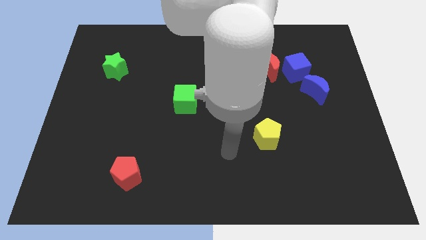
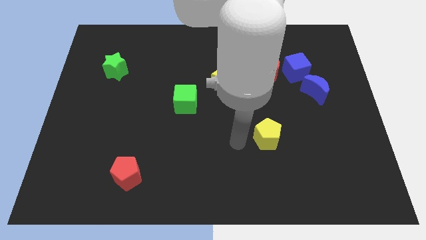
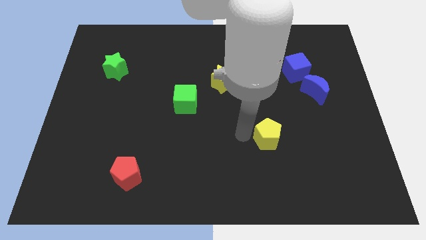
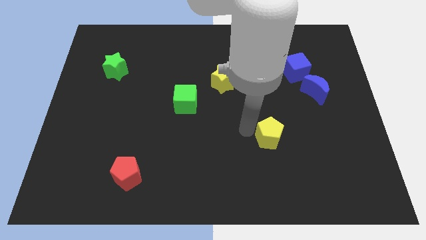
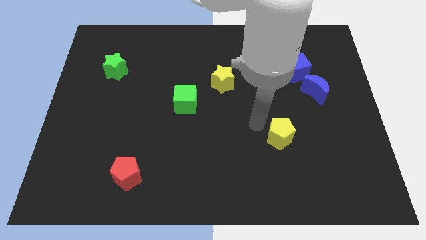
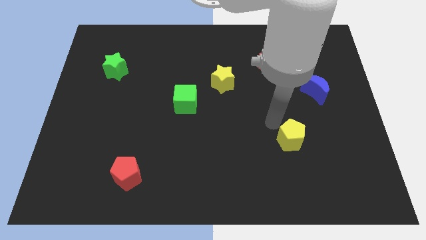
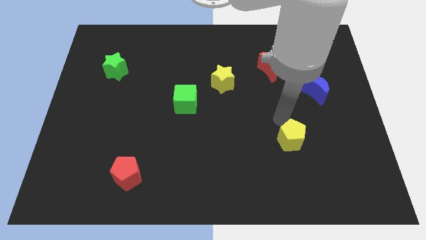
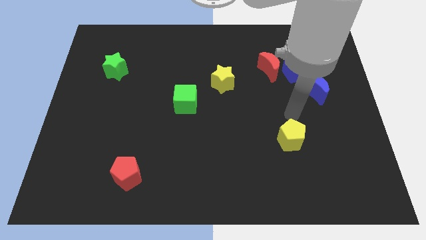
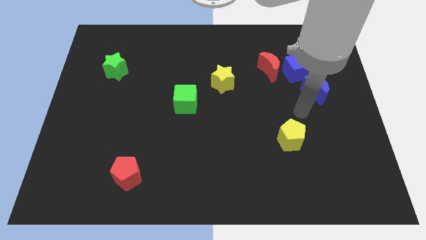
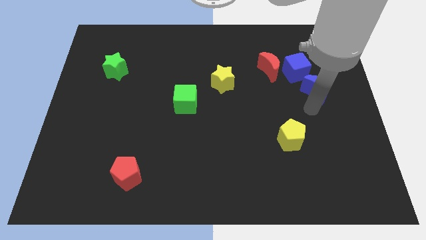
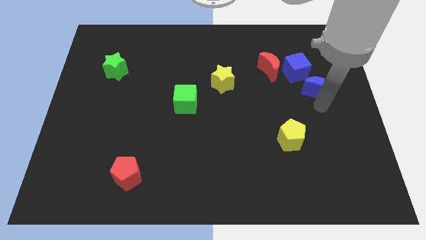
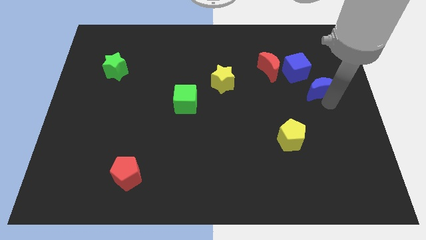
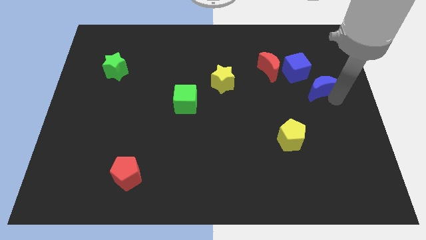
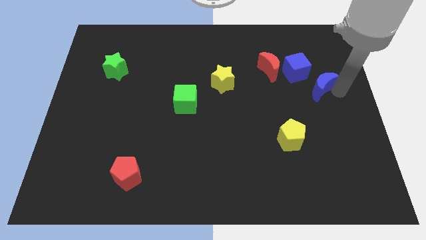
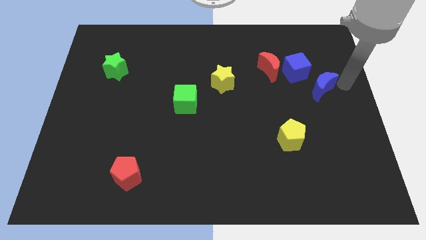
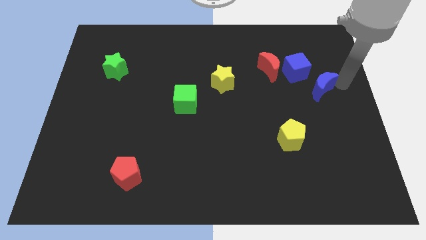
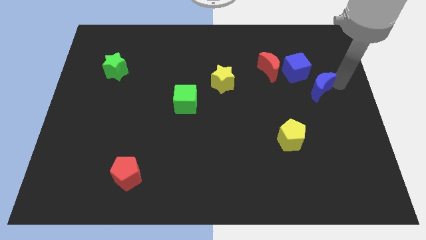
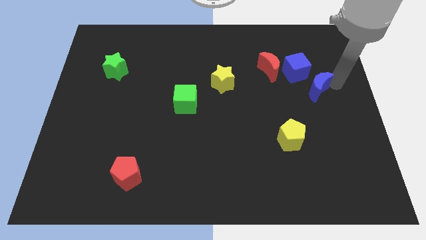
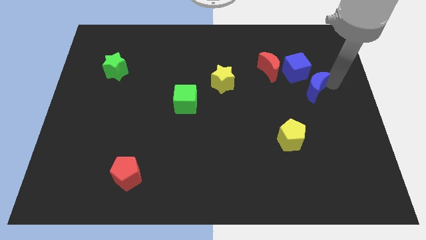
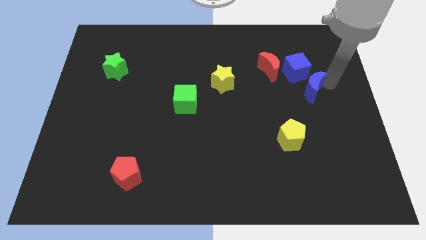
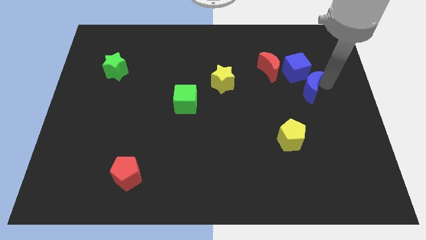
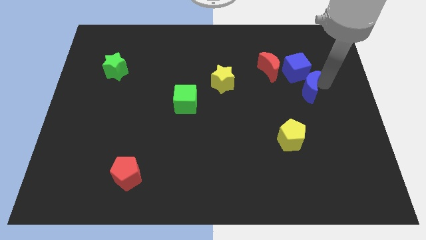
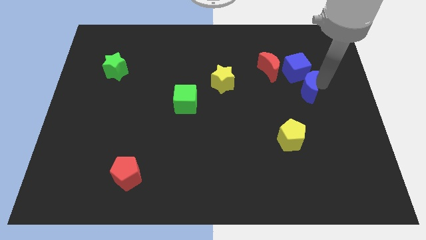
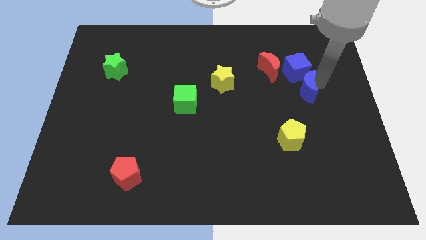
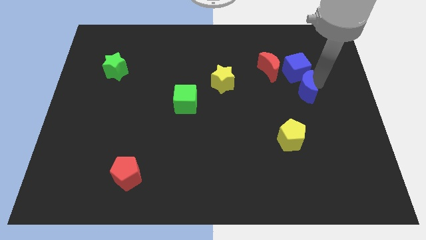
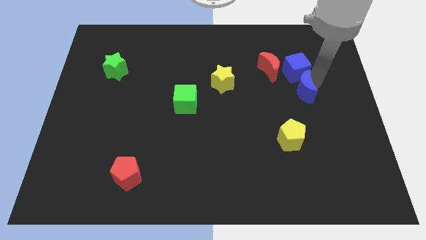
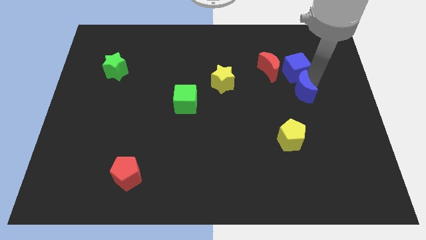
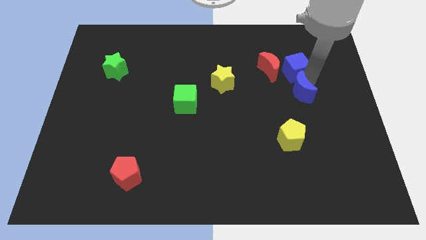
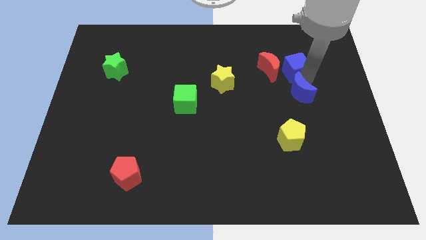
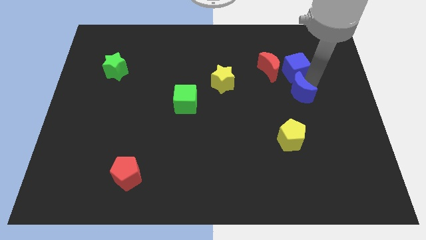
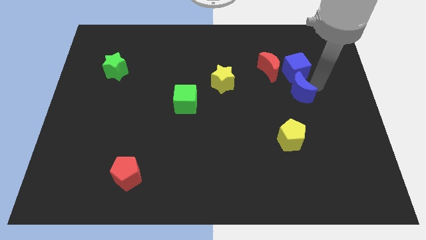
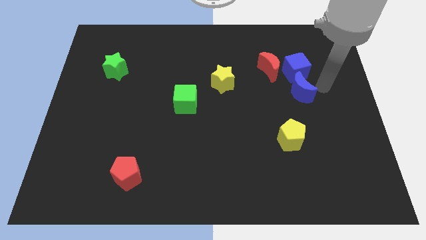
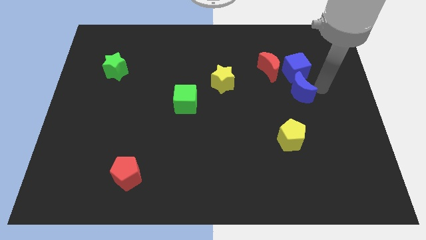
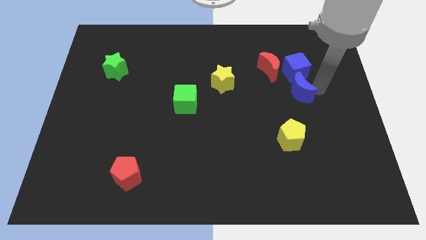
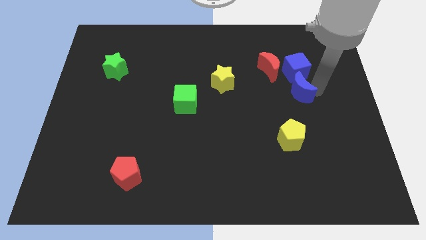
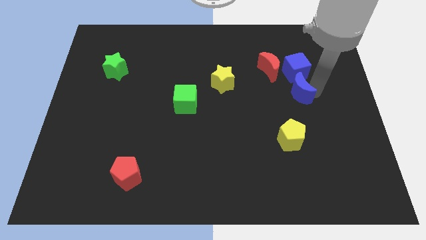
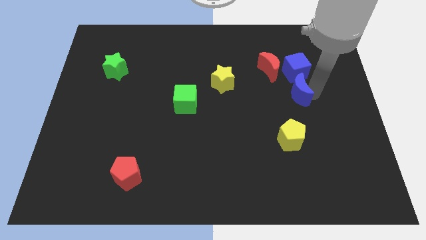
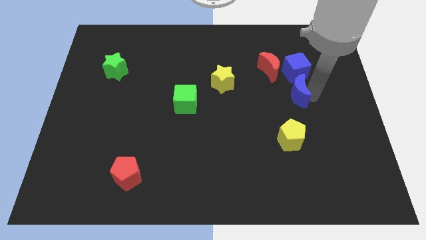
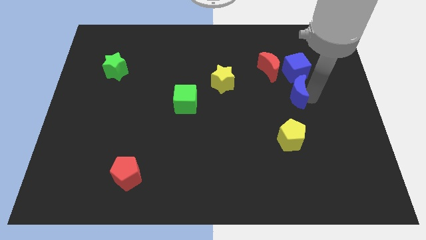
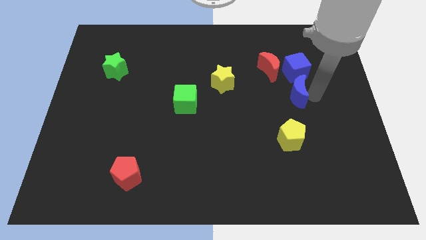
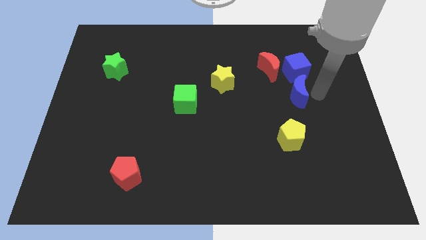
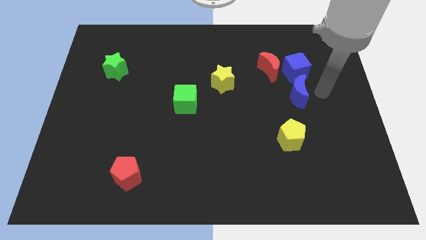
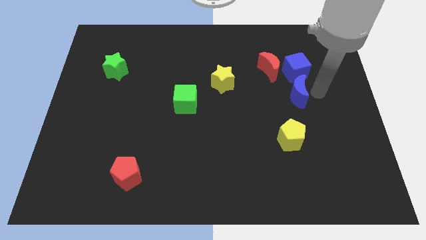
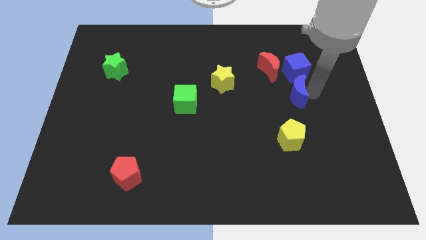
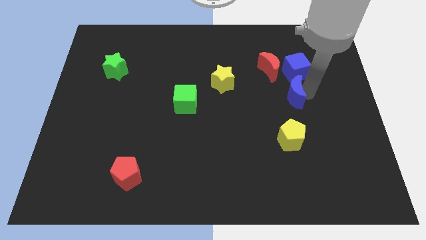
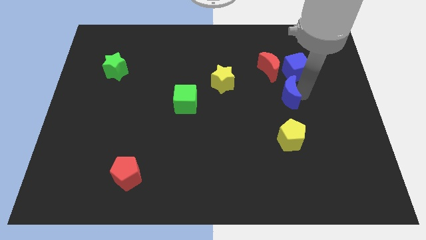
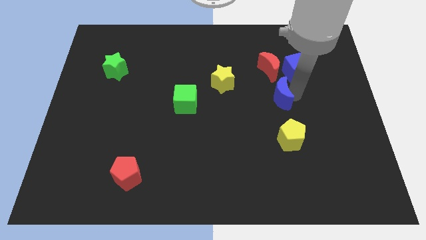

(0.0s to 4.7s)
slightly push the blue moon left

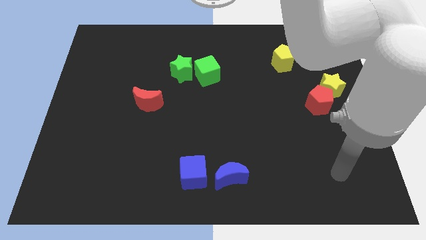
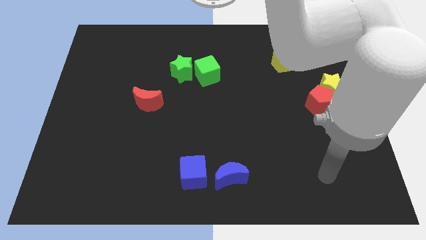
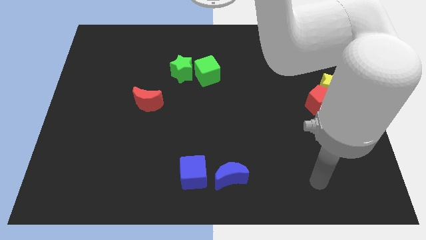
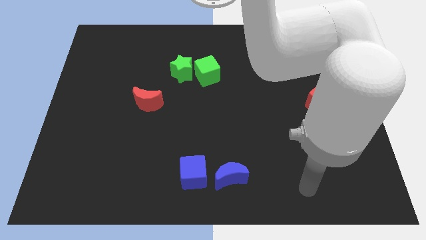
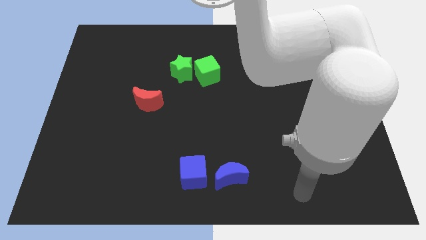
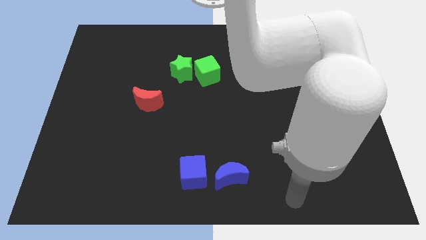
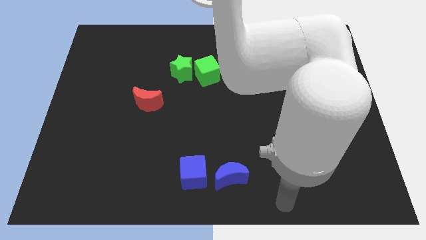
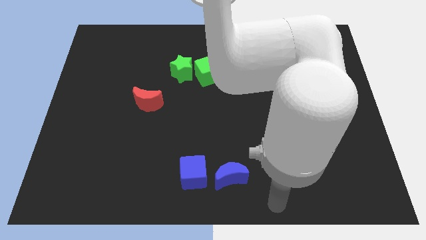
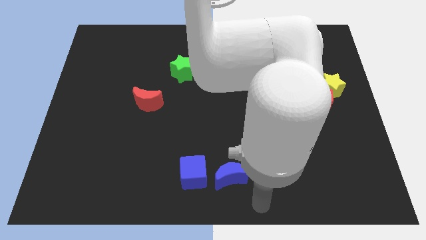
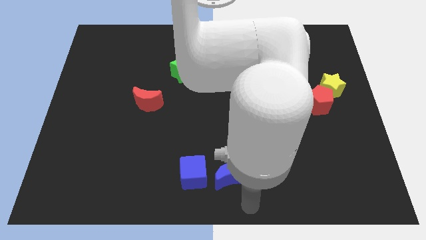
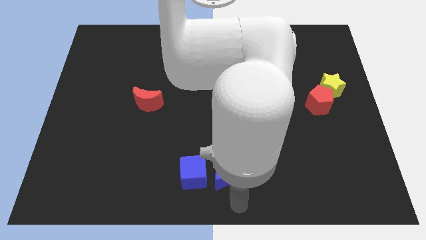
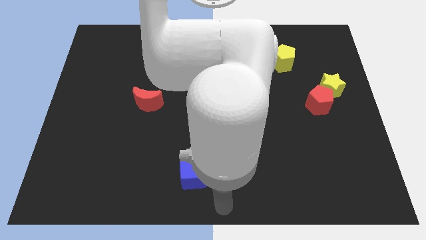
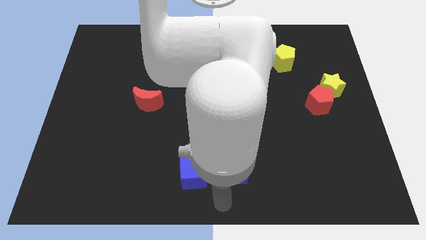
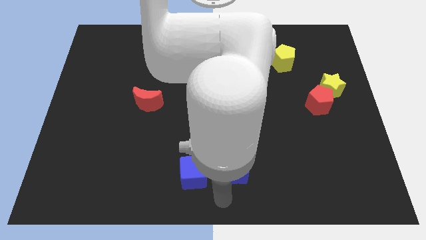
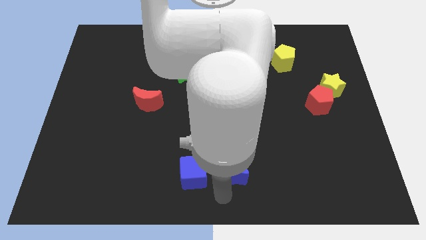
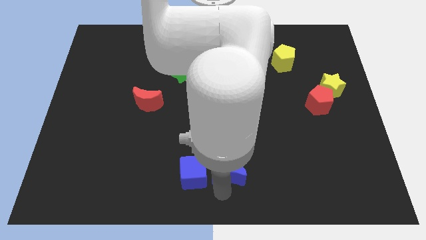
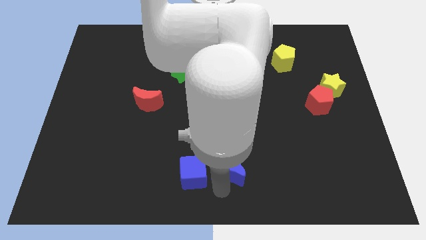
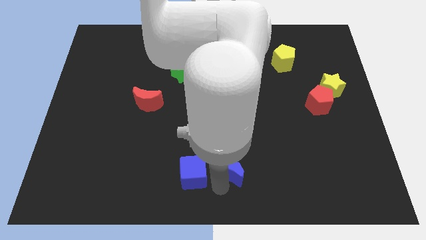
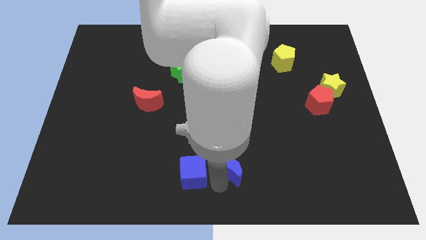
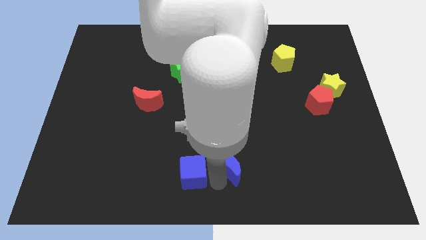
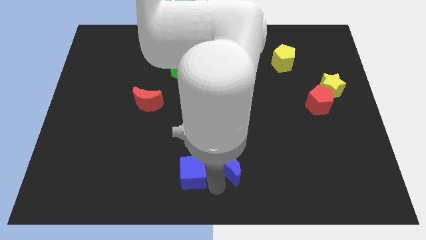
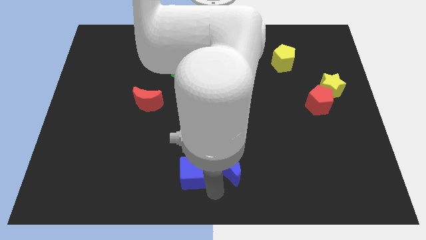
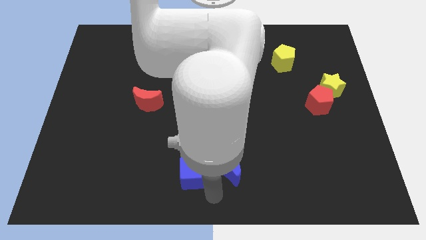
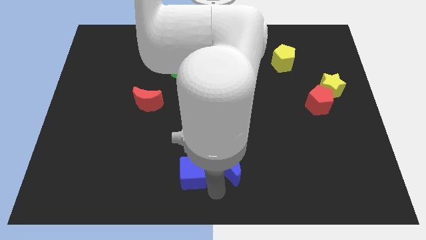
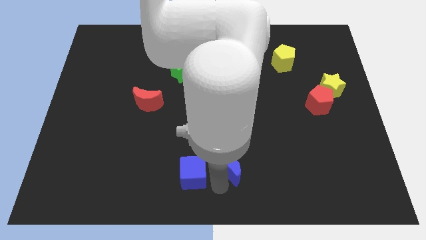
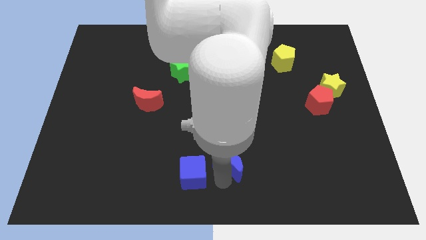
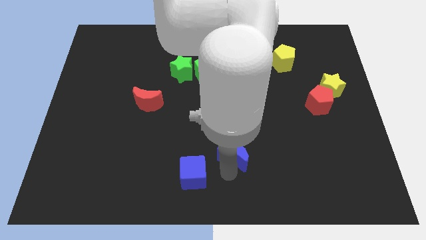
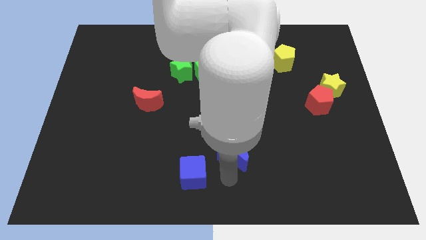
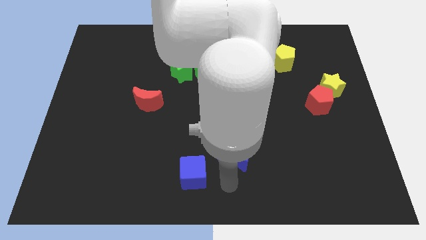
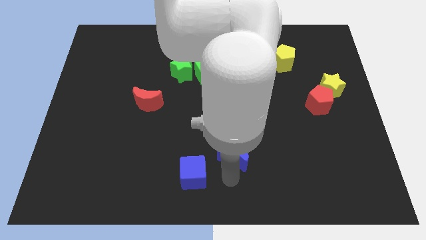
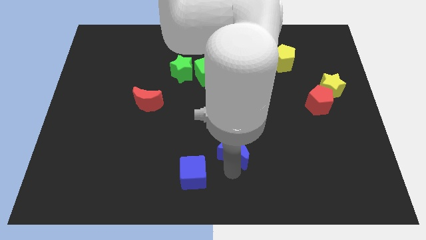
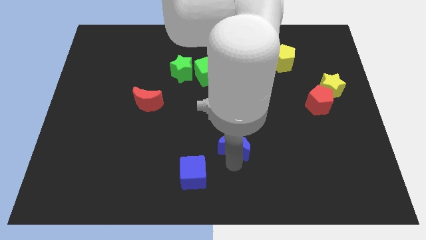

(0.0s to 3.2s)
move the blue moon a bit upwards

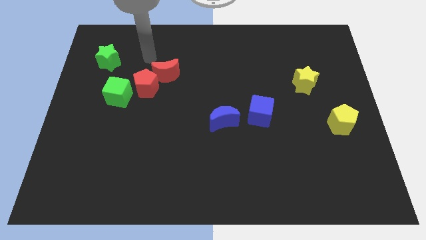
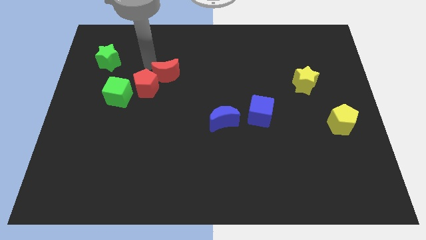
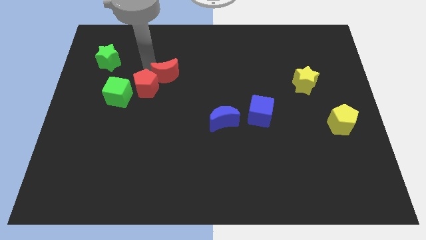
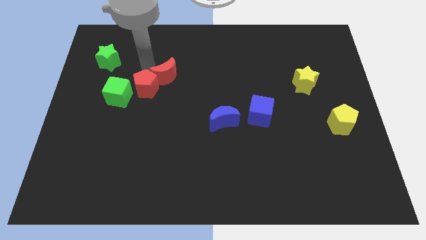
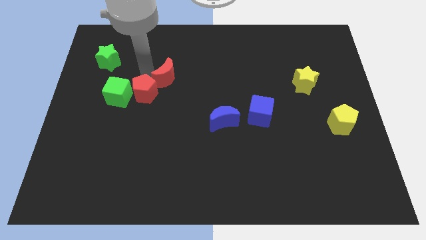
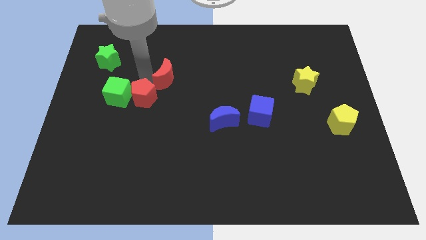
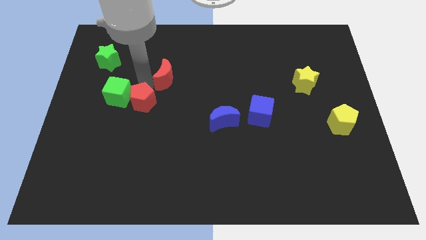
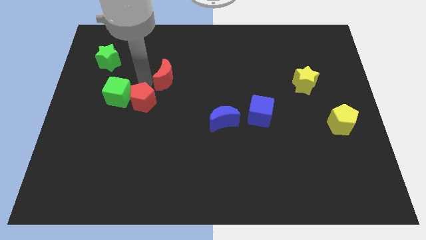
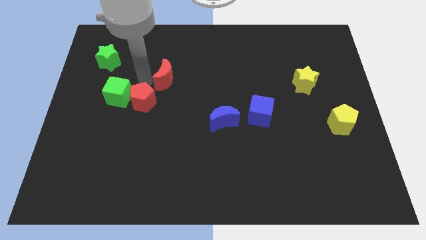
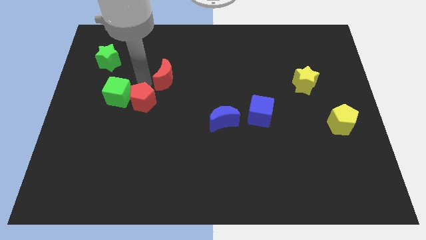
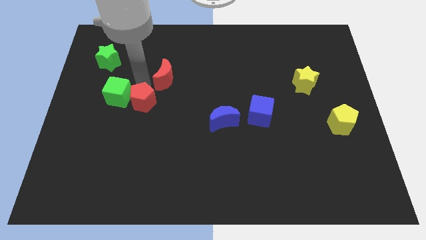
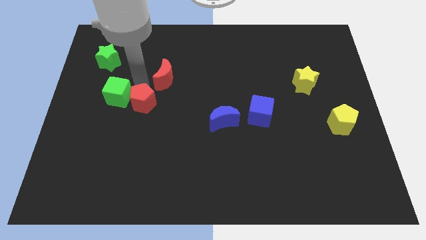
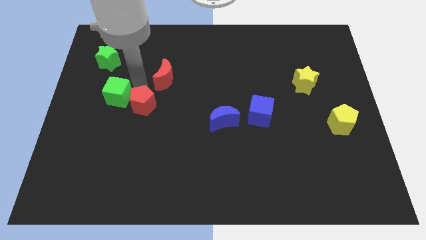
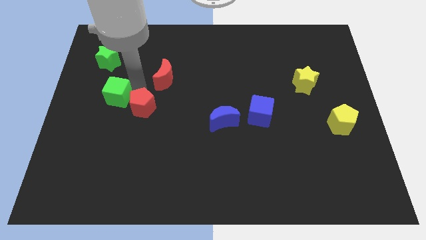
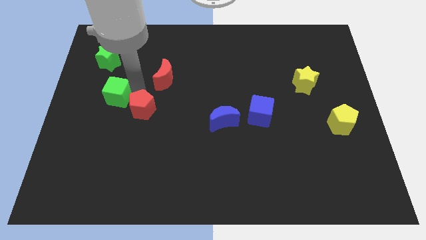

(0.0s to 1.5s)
slide the red pentagon downwards slightly
